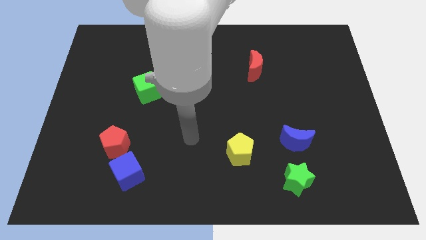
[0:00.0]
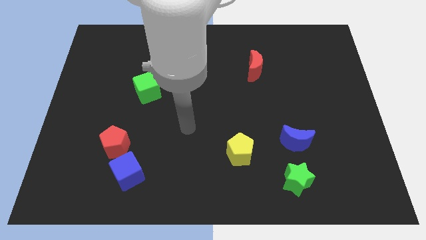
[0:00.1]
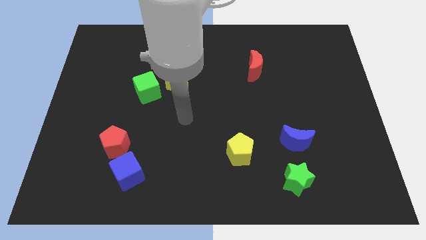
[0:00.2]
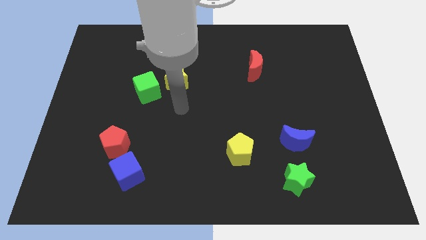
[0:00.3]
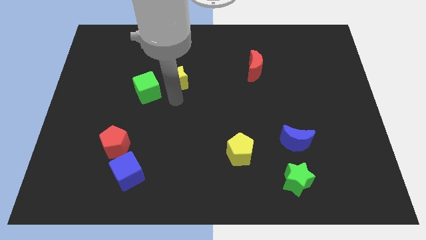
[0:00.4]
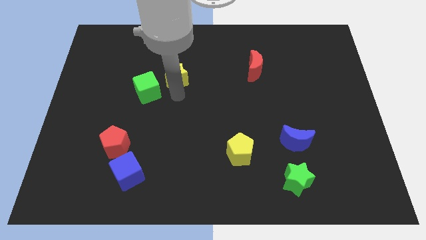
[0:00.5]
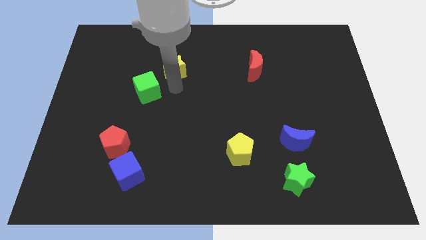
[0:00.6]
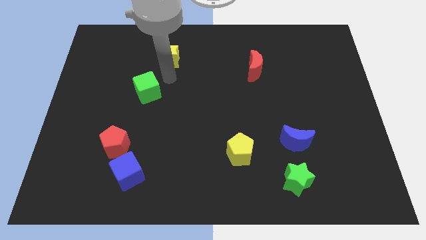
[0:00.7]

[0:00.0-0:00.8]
pull the green cube apart from the yellow star

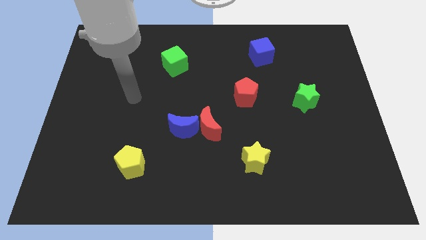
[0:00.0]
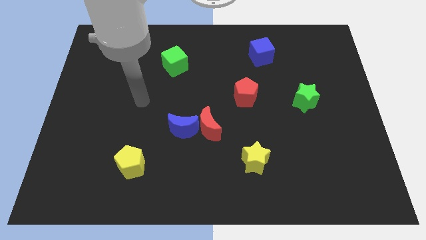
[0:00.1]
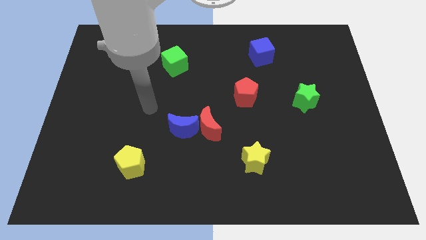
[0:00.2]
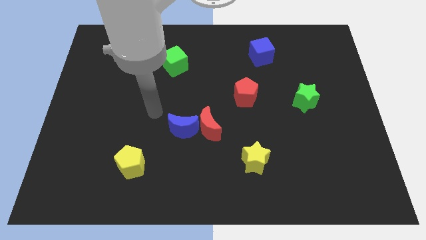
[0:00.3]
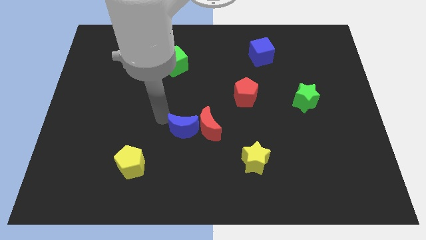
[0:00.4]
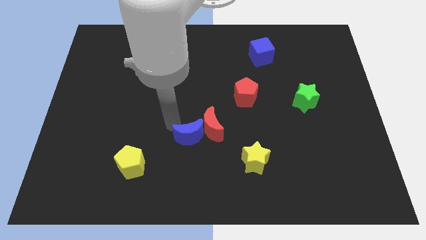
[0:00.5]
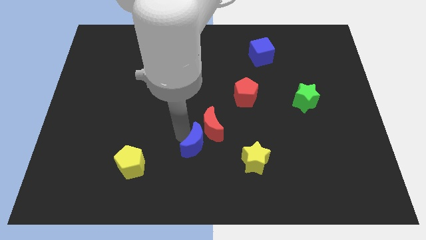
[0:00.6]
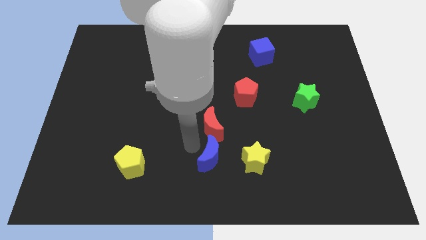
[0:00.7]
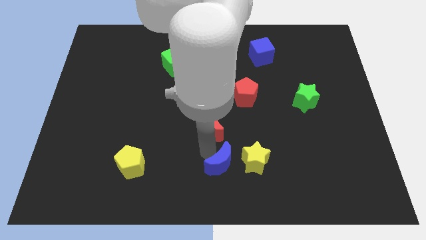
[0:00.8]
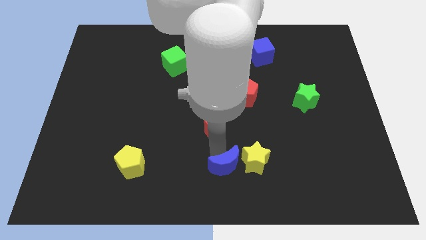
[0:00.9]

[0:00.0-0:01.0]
move the red moon away from the blue moon

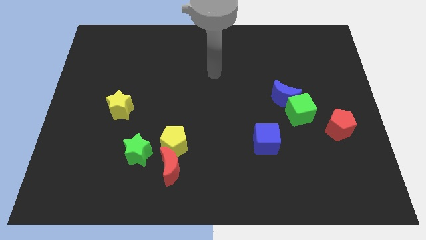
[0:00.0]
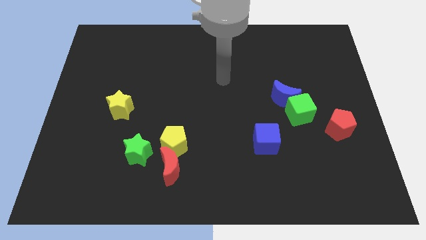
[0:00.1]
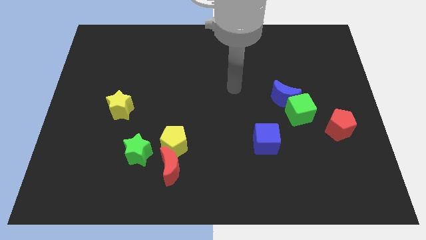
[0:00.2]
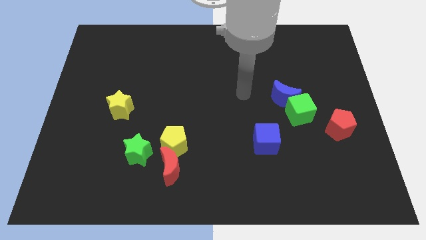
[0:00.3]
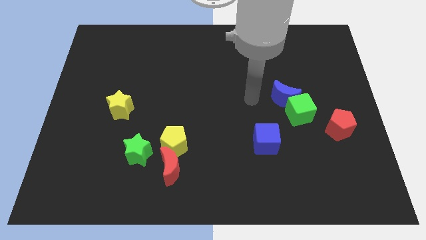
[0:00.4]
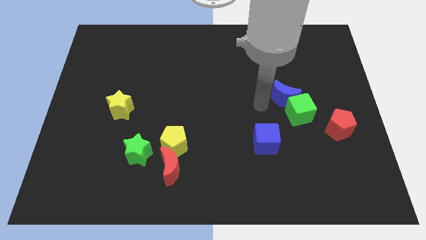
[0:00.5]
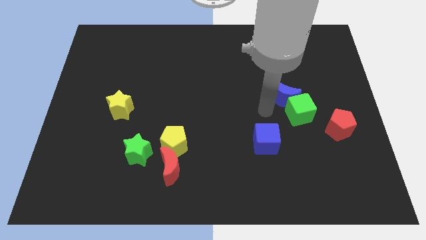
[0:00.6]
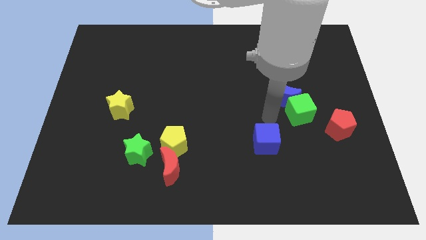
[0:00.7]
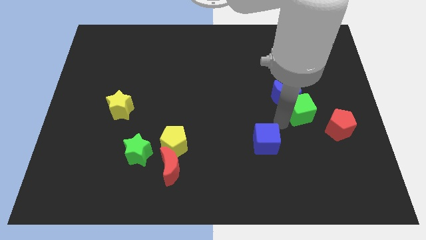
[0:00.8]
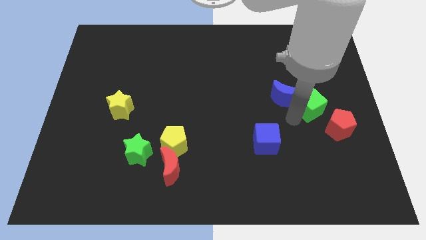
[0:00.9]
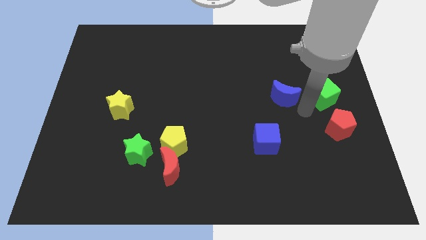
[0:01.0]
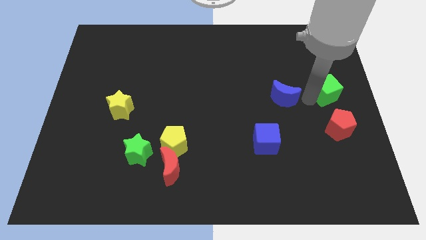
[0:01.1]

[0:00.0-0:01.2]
pull the blue moon apart from the green cube

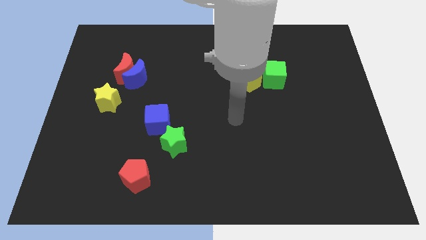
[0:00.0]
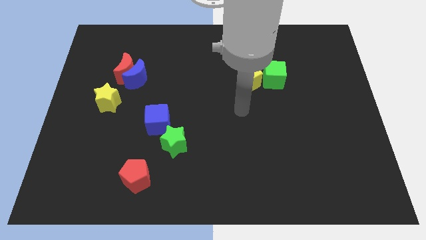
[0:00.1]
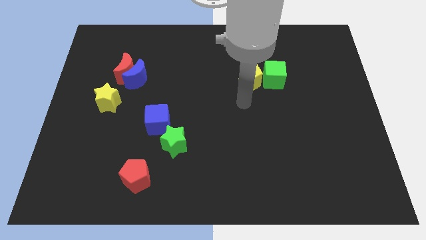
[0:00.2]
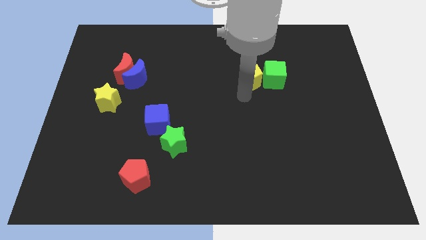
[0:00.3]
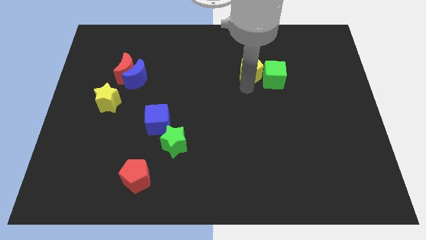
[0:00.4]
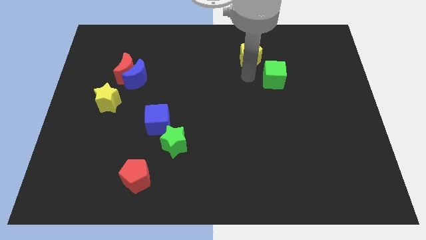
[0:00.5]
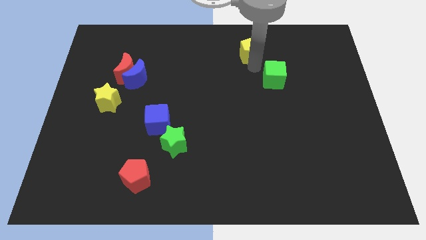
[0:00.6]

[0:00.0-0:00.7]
separate the green cube from the yellow pentagon

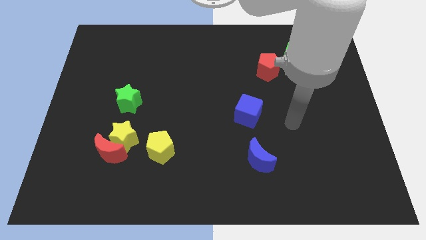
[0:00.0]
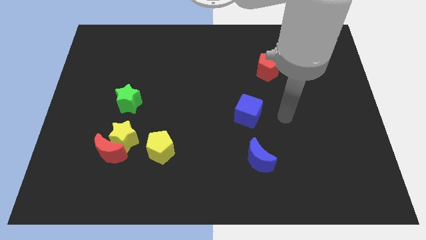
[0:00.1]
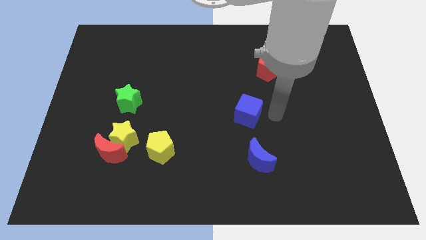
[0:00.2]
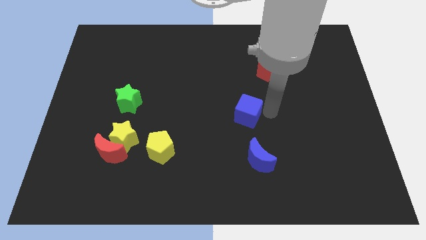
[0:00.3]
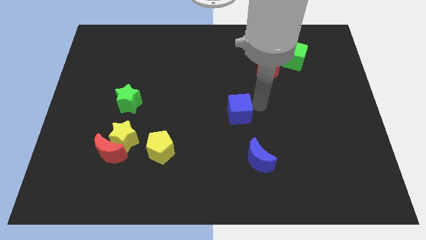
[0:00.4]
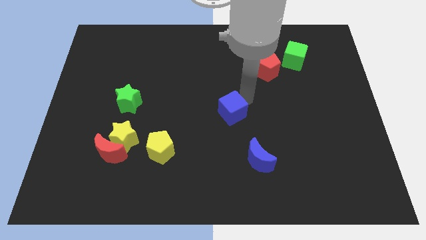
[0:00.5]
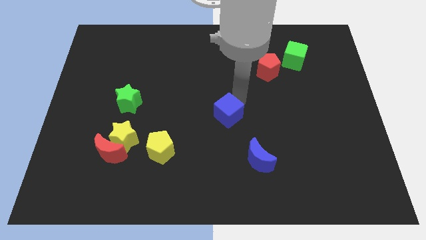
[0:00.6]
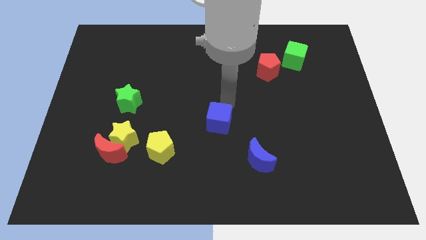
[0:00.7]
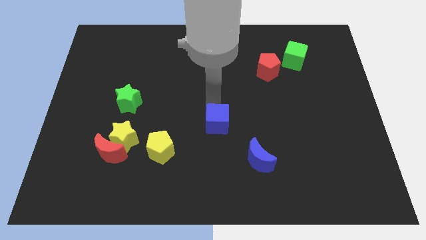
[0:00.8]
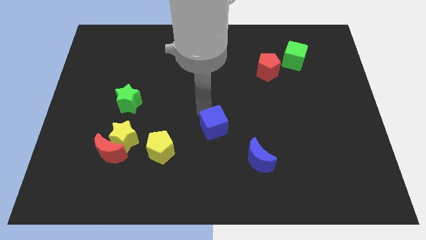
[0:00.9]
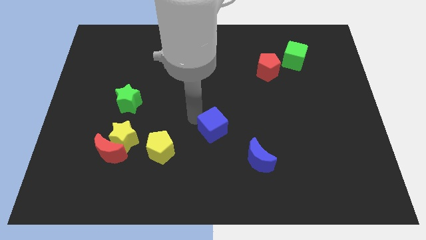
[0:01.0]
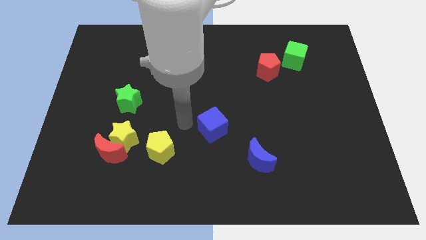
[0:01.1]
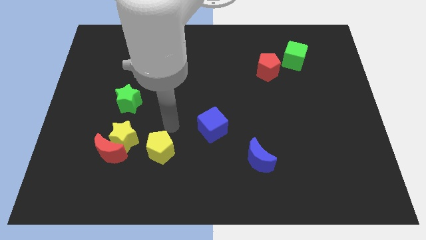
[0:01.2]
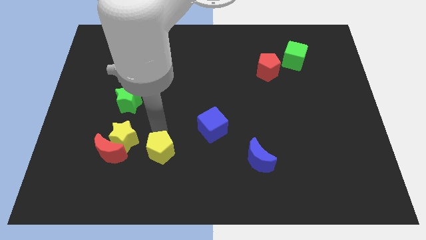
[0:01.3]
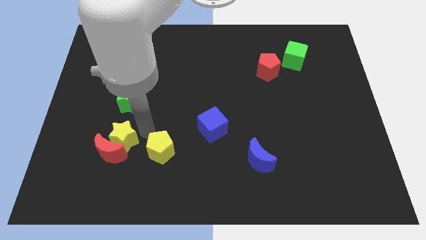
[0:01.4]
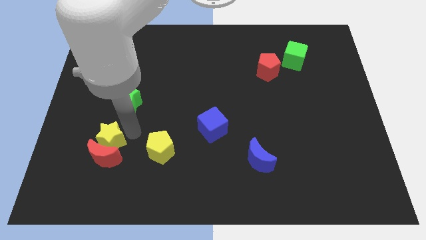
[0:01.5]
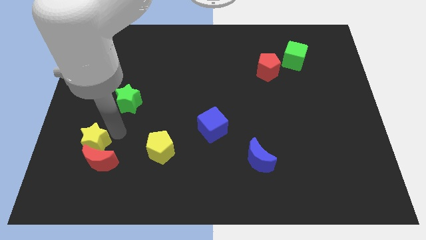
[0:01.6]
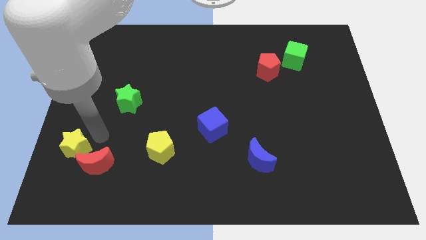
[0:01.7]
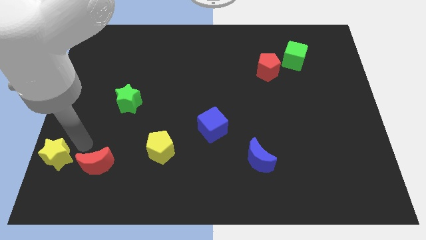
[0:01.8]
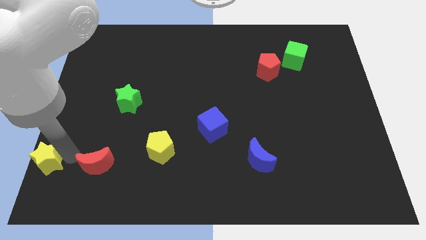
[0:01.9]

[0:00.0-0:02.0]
separate the red moon from the yellow star

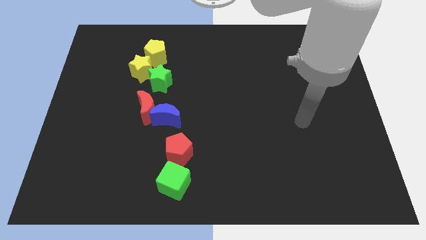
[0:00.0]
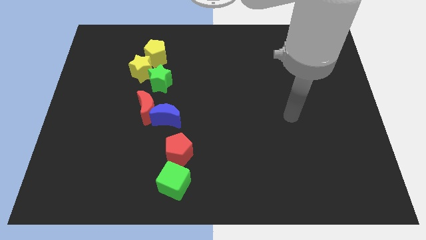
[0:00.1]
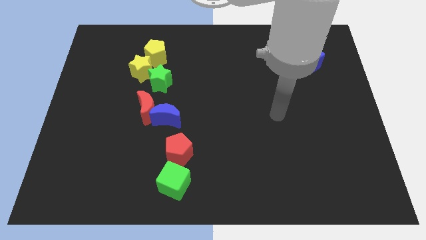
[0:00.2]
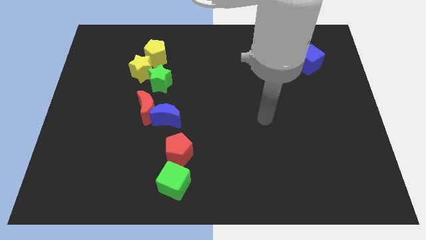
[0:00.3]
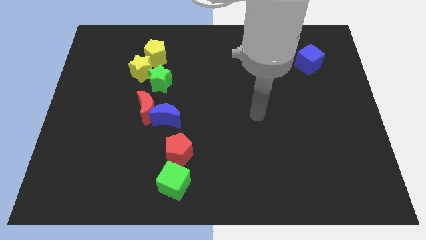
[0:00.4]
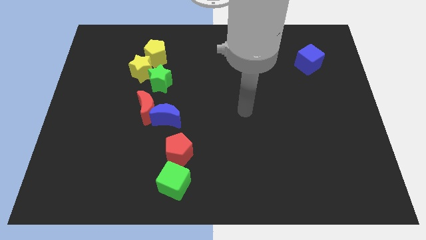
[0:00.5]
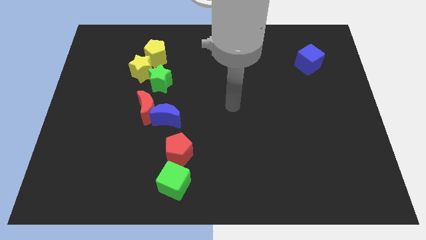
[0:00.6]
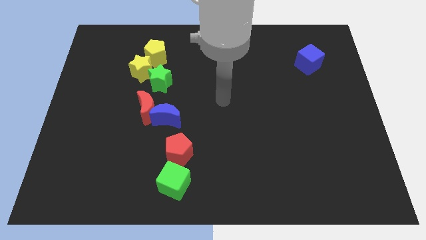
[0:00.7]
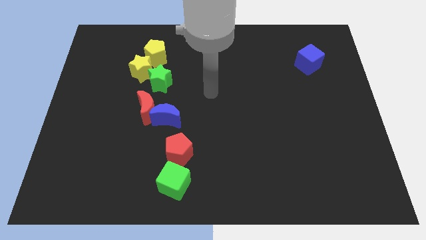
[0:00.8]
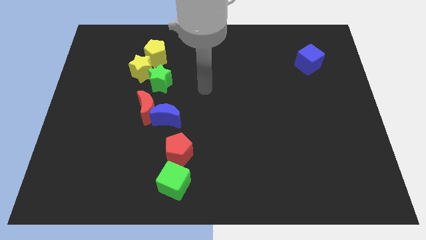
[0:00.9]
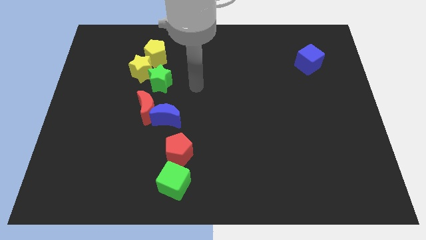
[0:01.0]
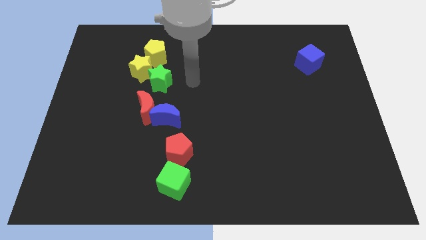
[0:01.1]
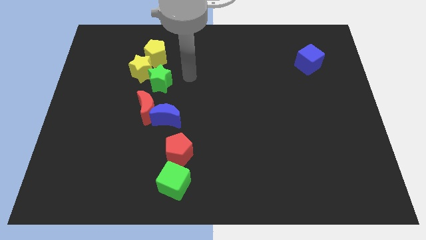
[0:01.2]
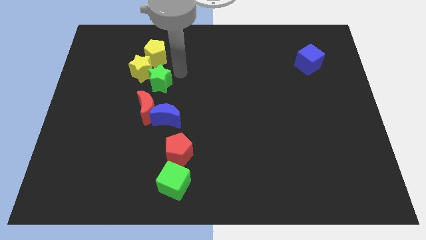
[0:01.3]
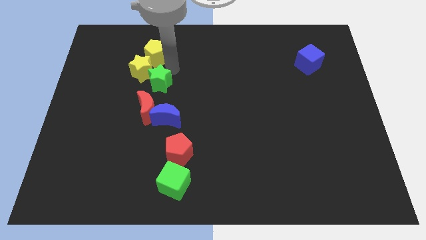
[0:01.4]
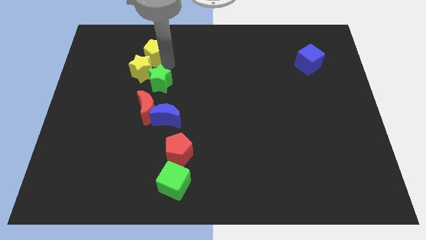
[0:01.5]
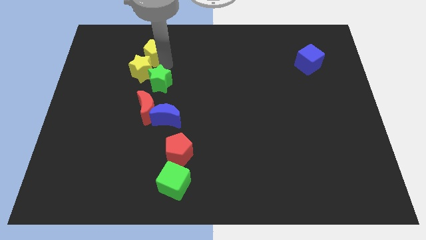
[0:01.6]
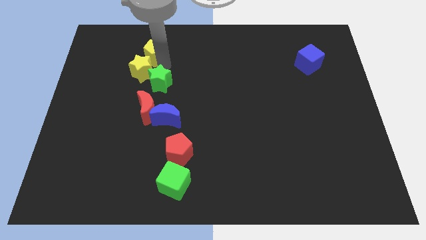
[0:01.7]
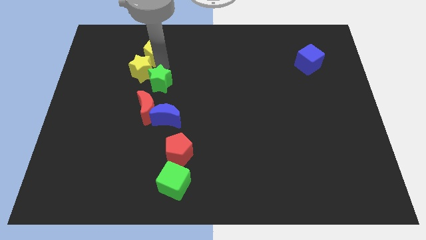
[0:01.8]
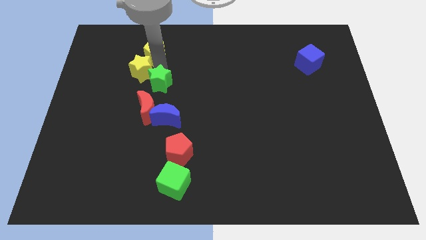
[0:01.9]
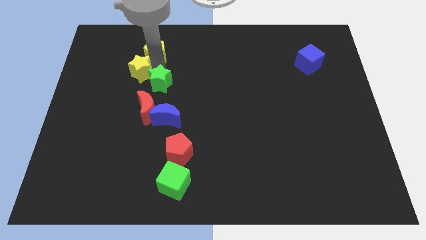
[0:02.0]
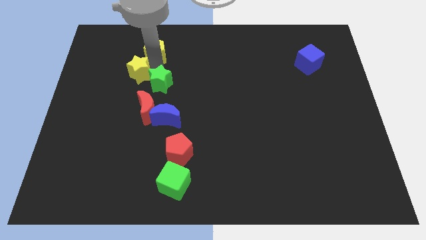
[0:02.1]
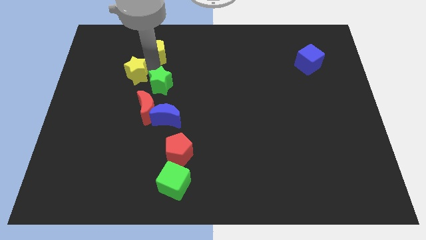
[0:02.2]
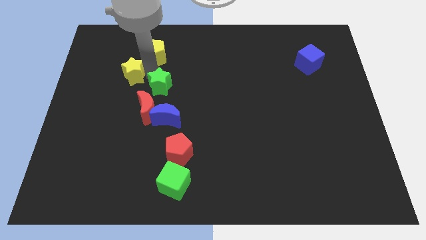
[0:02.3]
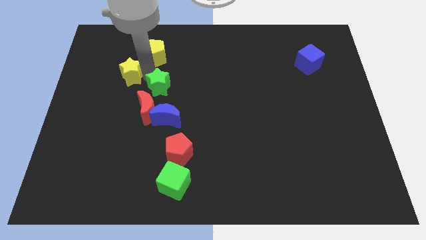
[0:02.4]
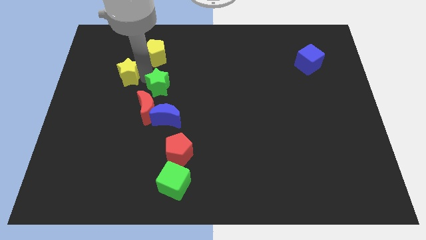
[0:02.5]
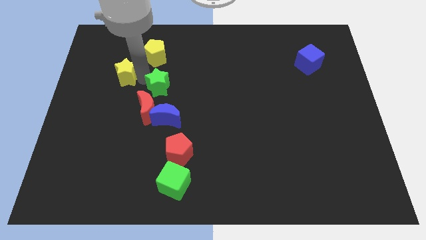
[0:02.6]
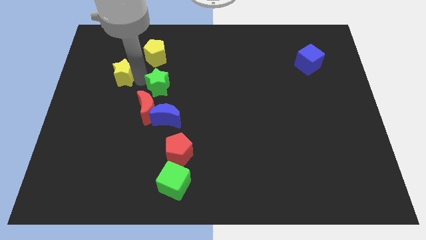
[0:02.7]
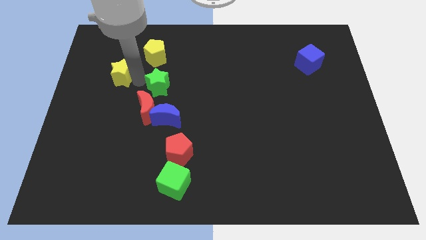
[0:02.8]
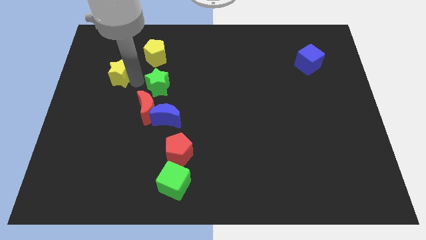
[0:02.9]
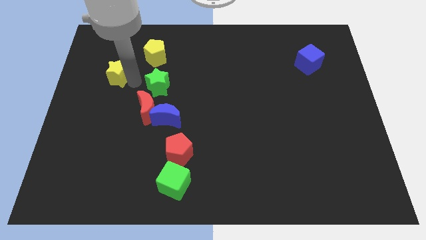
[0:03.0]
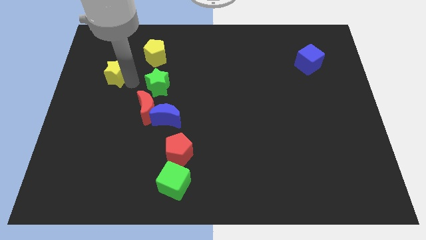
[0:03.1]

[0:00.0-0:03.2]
move the yellow star away from the green star and yellow pentagon

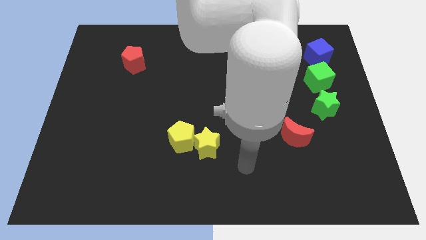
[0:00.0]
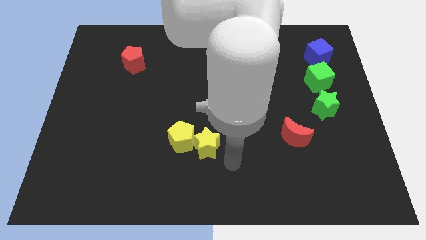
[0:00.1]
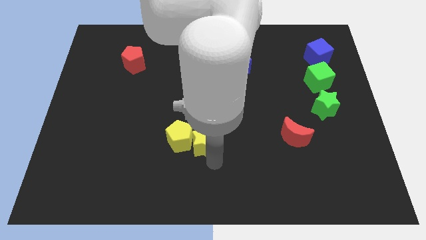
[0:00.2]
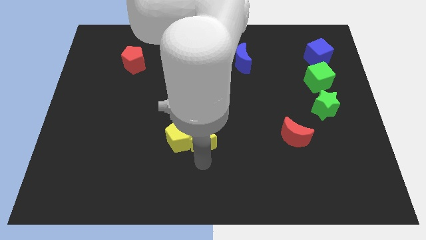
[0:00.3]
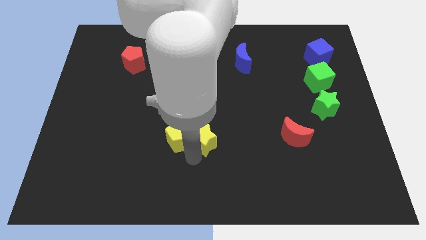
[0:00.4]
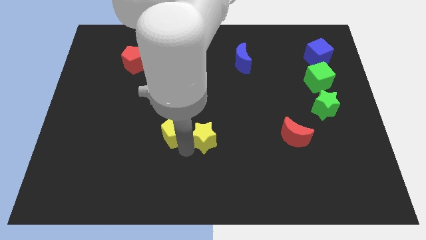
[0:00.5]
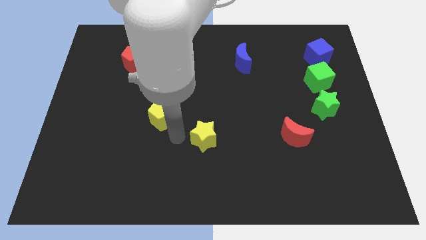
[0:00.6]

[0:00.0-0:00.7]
move the yellow star away from the yellow pentagon
